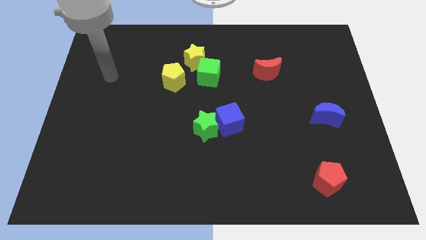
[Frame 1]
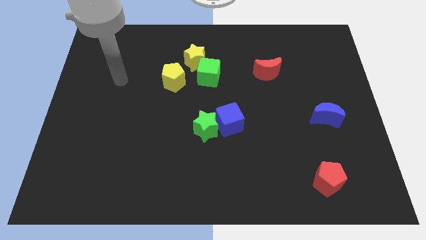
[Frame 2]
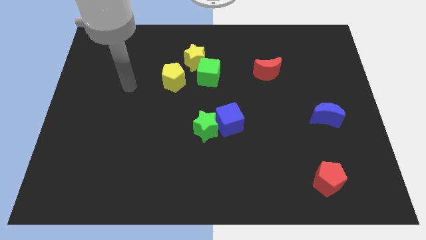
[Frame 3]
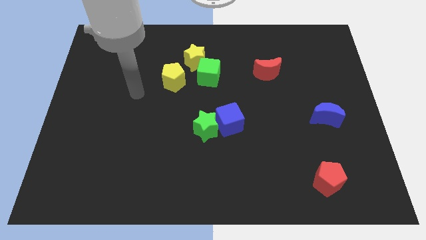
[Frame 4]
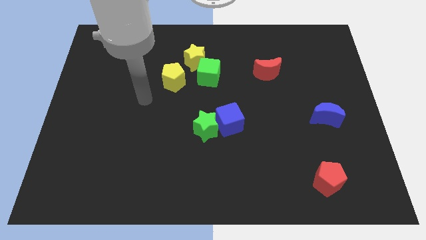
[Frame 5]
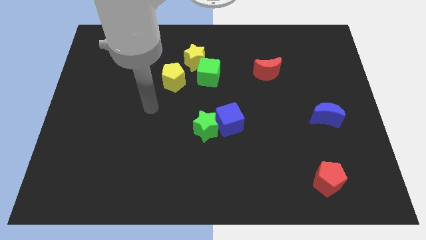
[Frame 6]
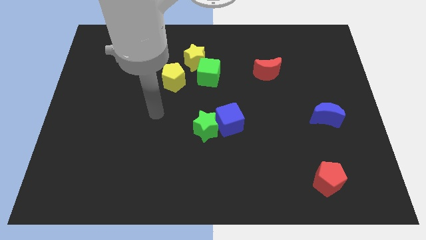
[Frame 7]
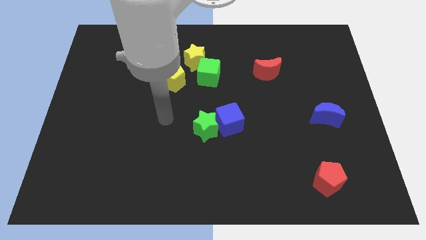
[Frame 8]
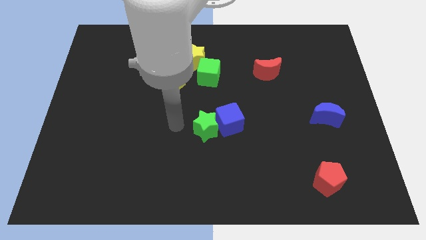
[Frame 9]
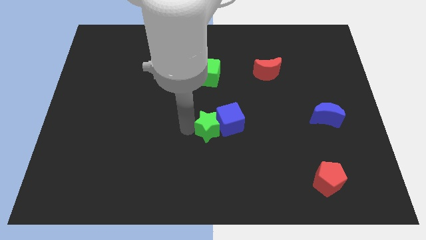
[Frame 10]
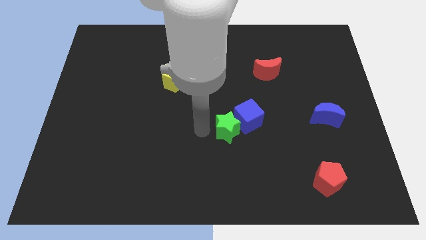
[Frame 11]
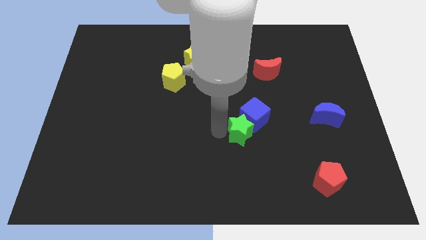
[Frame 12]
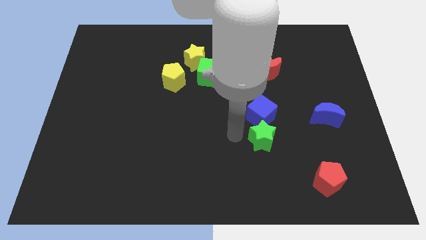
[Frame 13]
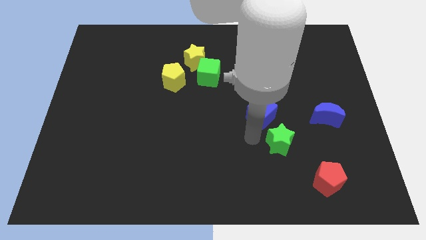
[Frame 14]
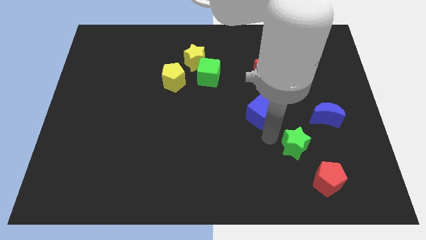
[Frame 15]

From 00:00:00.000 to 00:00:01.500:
pull the blue cube apart from the green star

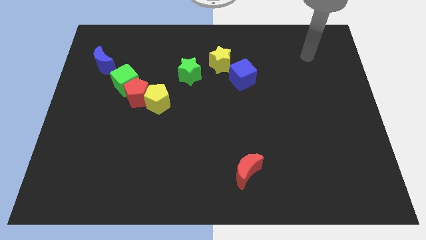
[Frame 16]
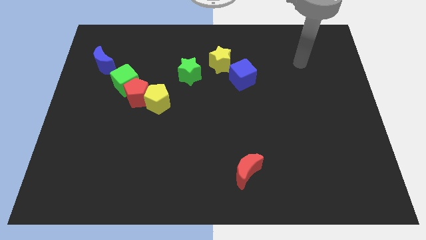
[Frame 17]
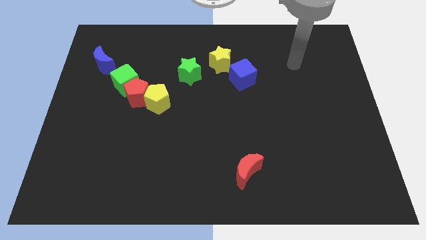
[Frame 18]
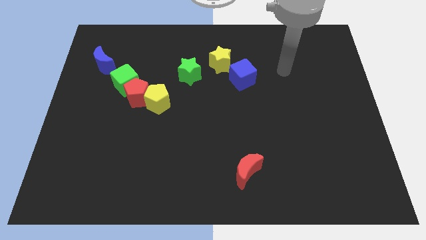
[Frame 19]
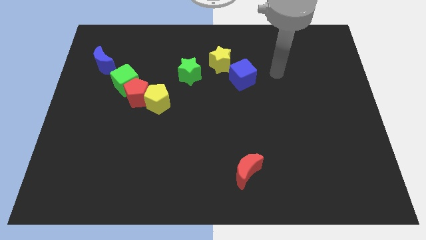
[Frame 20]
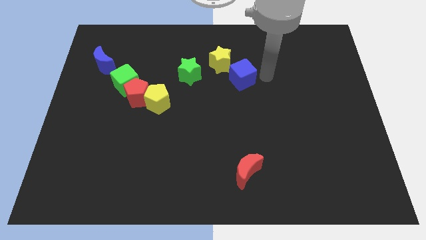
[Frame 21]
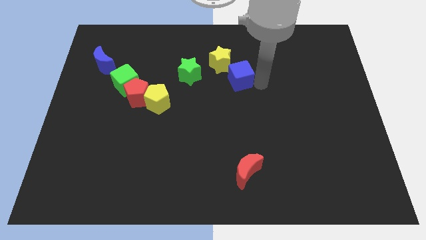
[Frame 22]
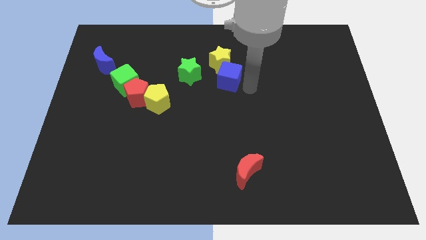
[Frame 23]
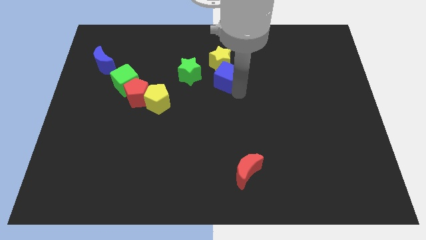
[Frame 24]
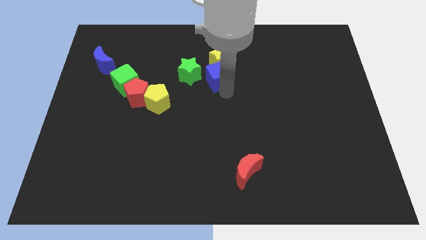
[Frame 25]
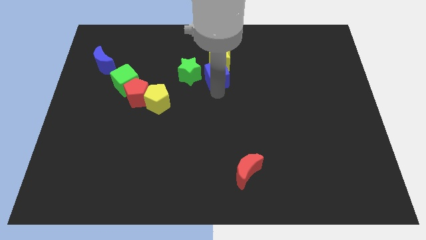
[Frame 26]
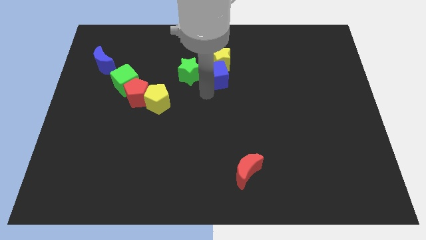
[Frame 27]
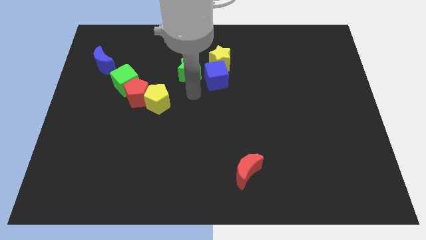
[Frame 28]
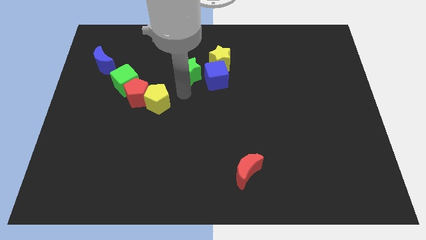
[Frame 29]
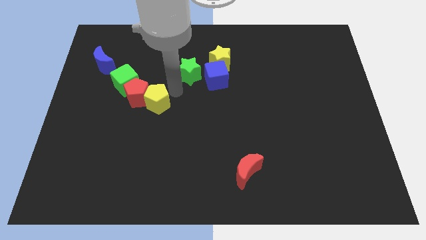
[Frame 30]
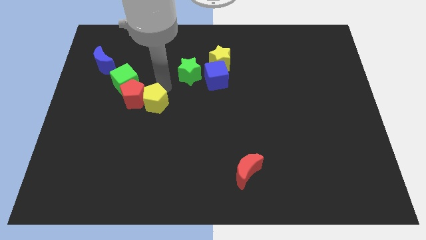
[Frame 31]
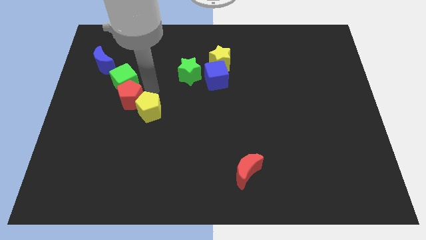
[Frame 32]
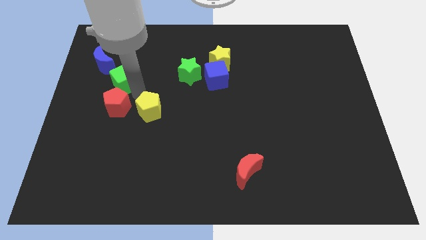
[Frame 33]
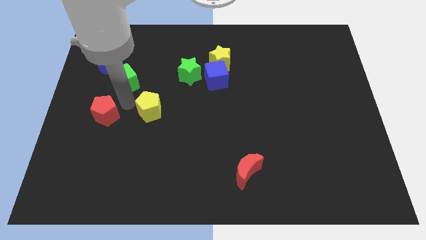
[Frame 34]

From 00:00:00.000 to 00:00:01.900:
pull the yellow pentagon apart from the red pentagon

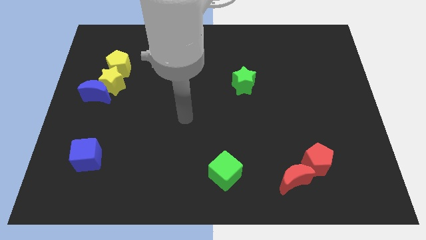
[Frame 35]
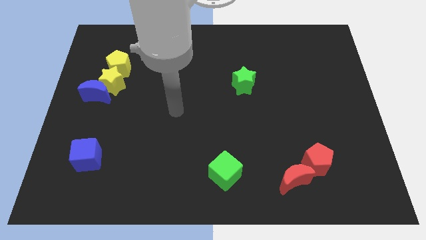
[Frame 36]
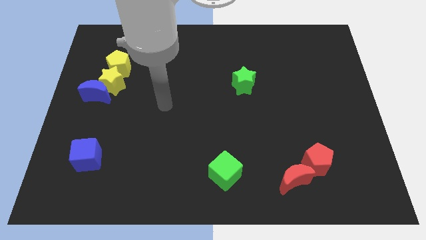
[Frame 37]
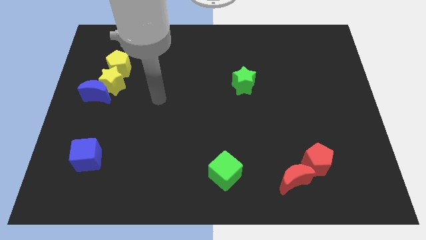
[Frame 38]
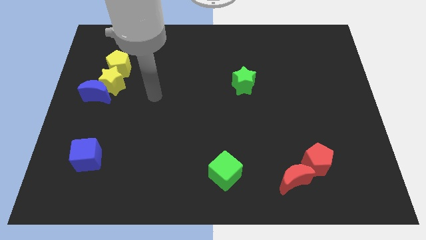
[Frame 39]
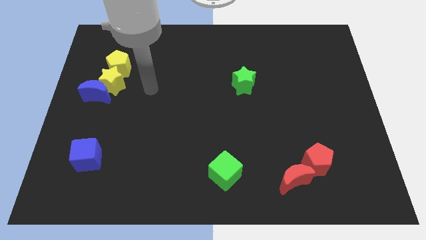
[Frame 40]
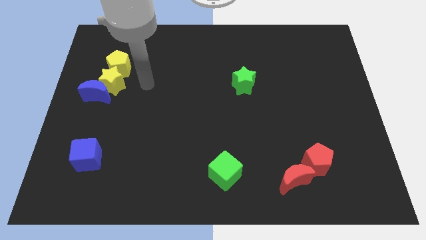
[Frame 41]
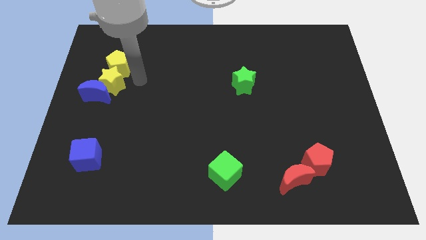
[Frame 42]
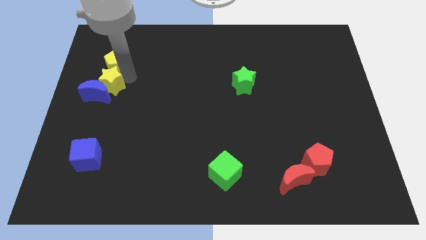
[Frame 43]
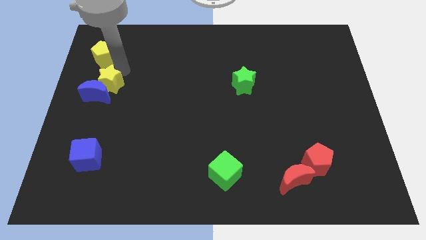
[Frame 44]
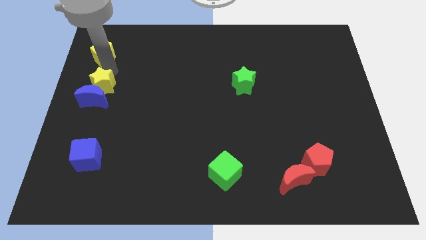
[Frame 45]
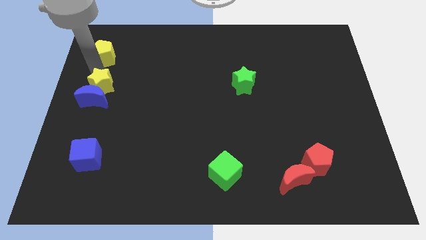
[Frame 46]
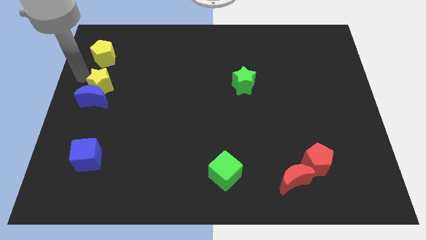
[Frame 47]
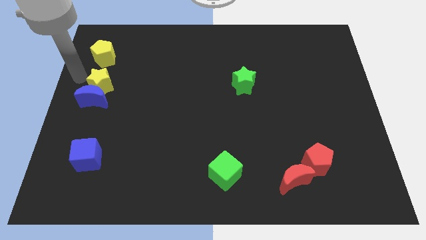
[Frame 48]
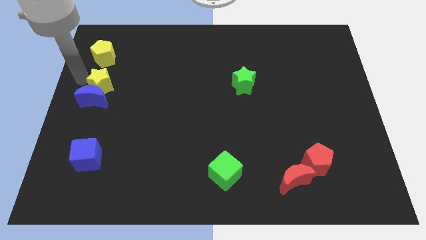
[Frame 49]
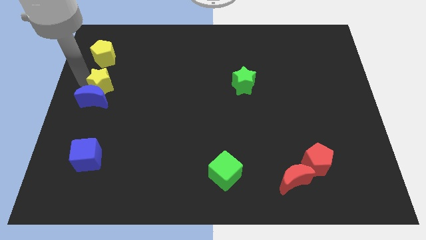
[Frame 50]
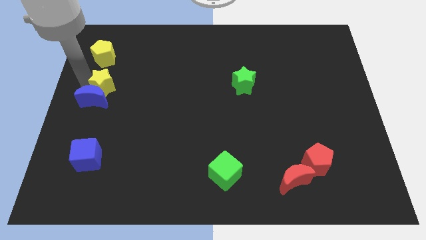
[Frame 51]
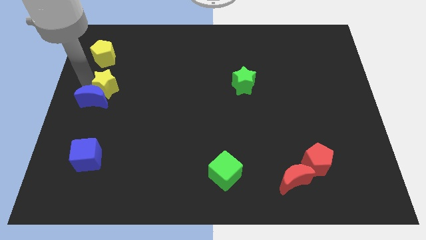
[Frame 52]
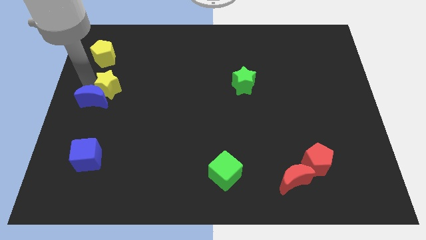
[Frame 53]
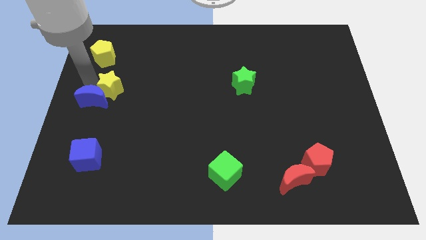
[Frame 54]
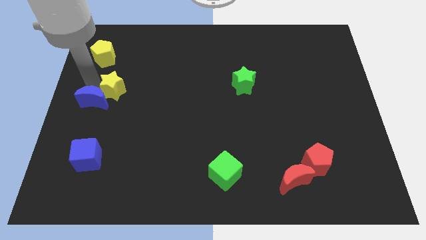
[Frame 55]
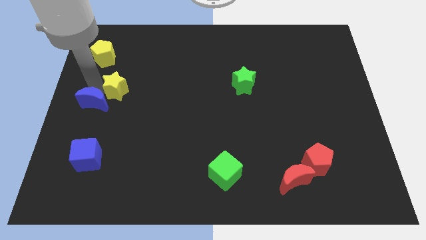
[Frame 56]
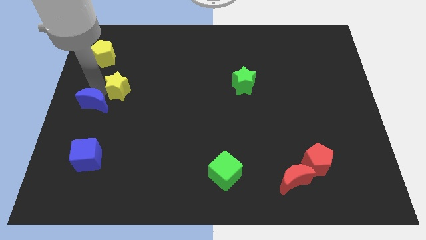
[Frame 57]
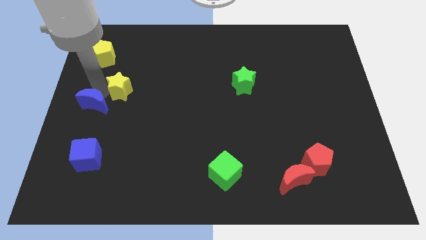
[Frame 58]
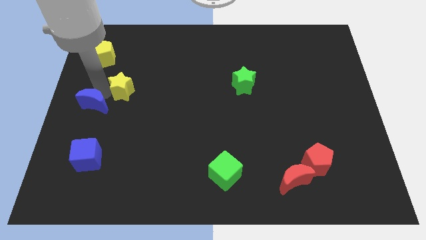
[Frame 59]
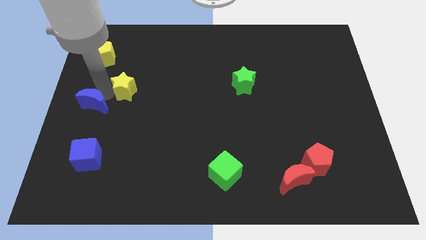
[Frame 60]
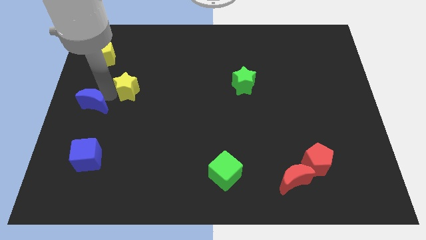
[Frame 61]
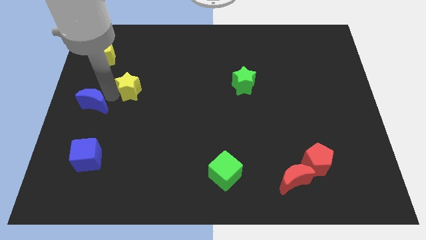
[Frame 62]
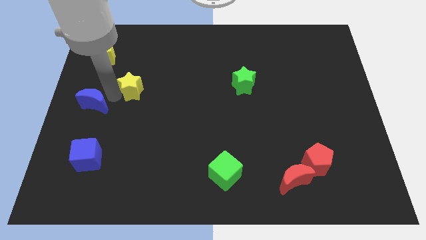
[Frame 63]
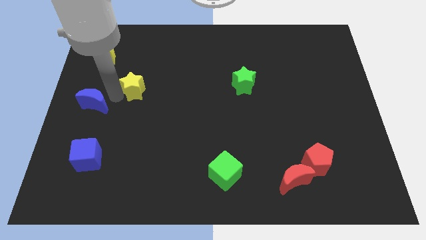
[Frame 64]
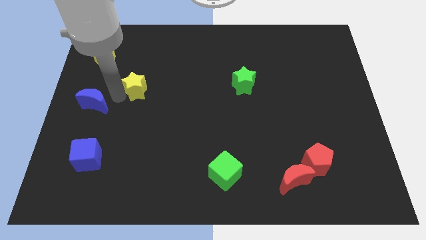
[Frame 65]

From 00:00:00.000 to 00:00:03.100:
pull the yellow star apart from the blue moon and yellow pentagon

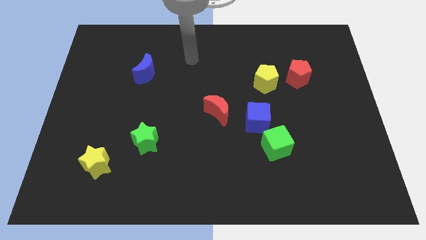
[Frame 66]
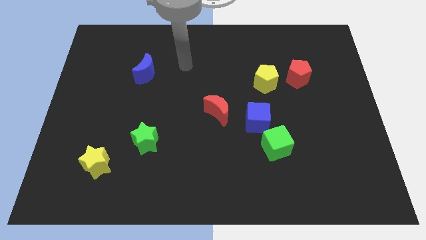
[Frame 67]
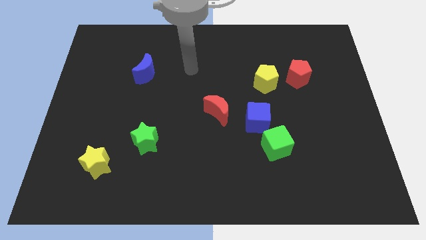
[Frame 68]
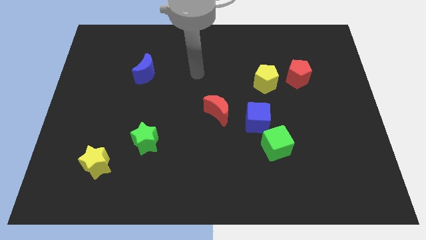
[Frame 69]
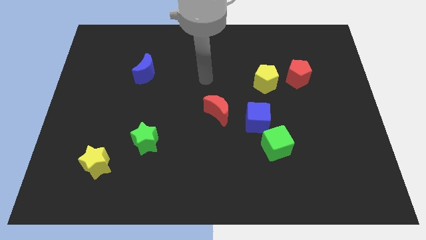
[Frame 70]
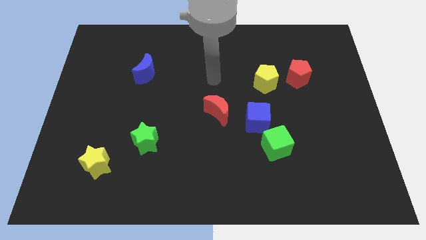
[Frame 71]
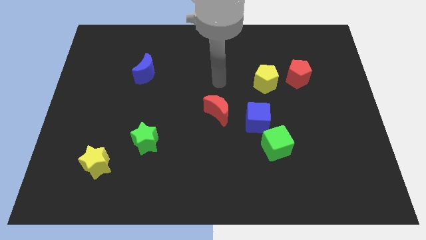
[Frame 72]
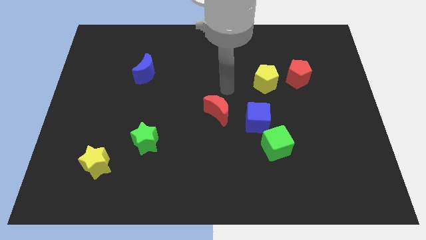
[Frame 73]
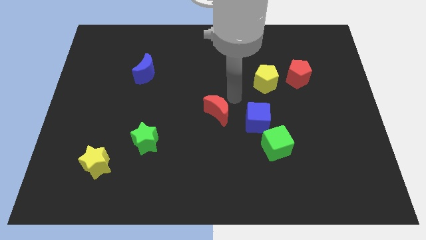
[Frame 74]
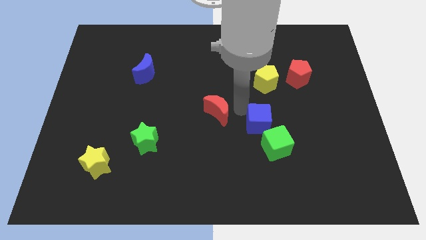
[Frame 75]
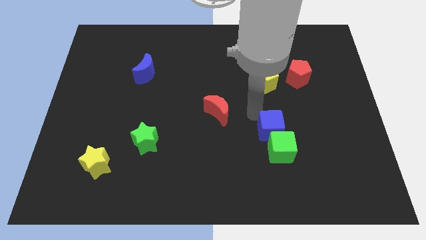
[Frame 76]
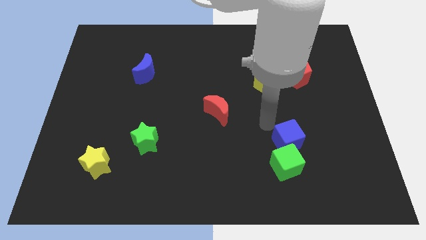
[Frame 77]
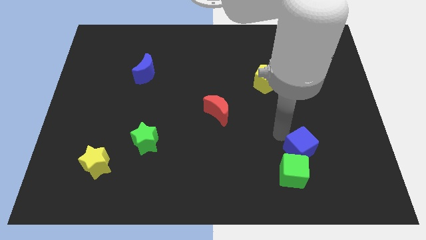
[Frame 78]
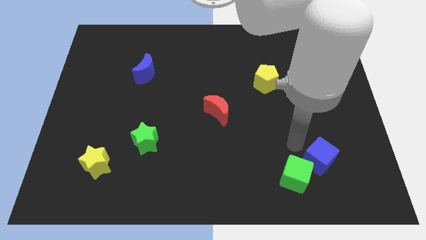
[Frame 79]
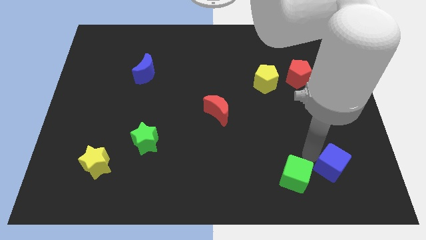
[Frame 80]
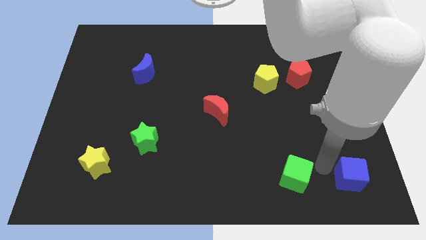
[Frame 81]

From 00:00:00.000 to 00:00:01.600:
move the green cube away from the blue cube

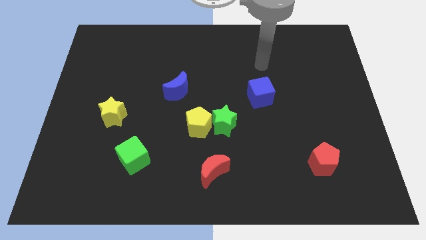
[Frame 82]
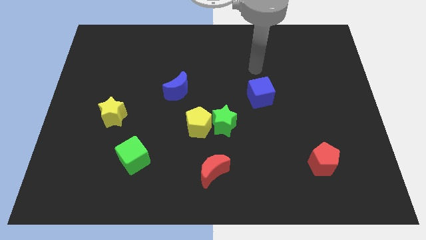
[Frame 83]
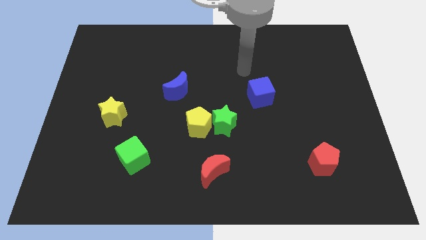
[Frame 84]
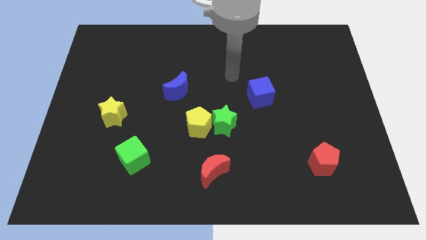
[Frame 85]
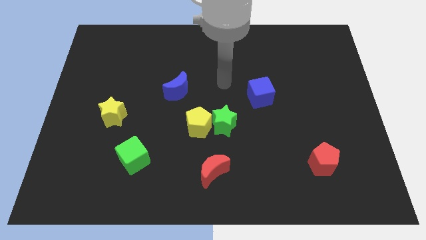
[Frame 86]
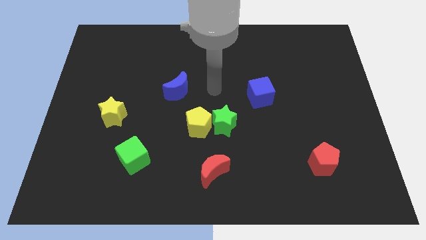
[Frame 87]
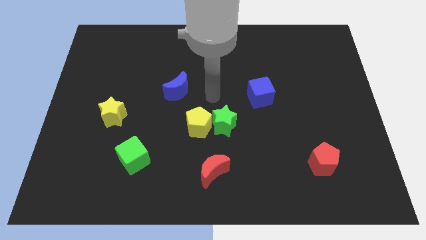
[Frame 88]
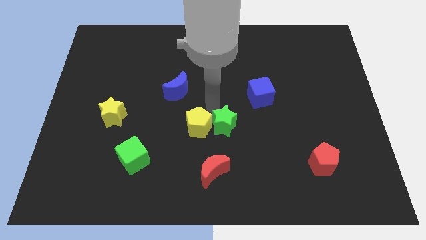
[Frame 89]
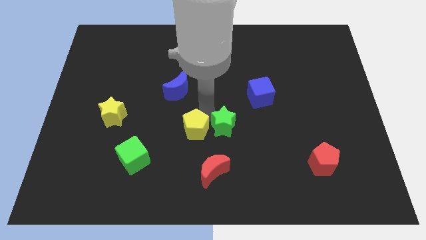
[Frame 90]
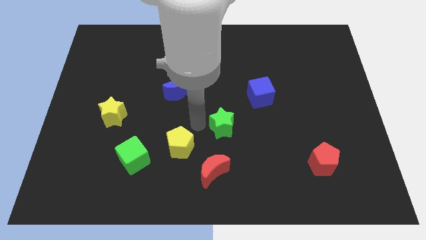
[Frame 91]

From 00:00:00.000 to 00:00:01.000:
pull the green star apart from the yellow pentagon
